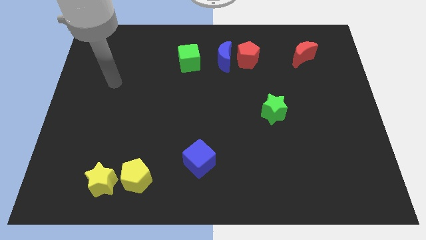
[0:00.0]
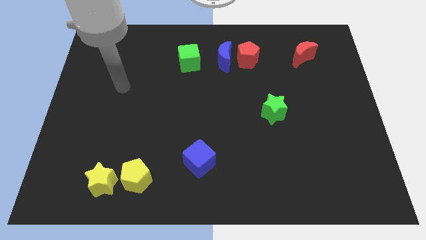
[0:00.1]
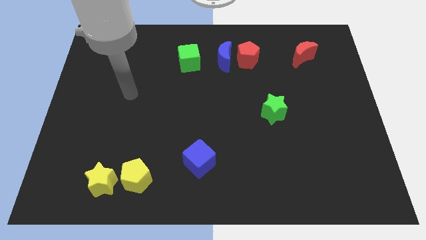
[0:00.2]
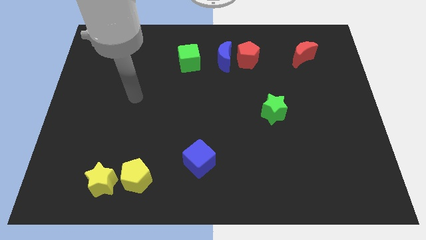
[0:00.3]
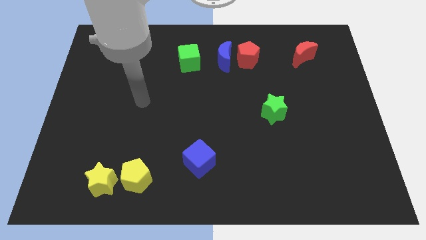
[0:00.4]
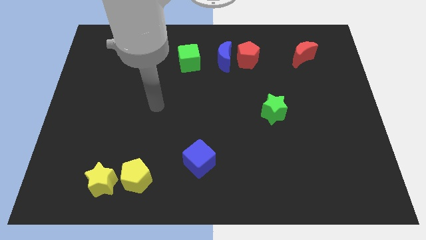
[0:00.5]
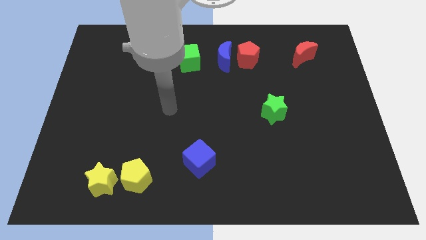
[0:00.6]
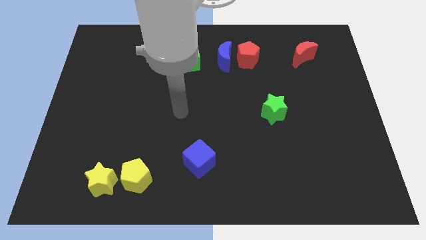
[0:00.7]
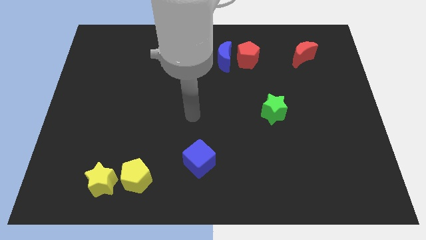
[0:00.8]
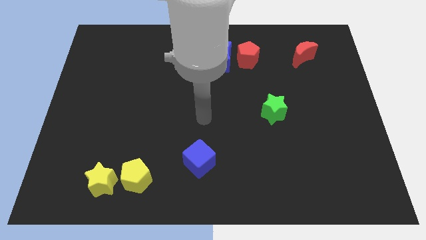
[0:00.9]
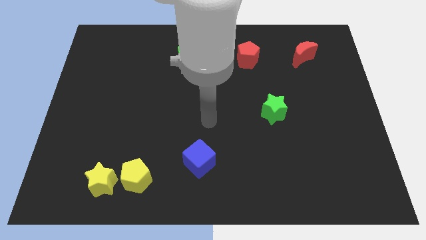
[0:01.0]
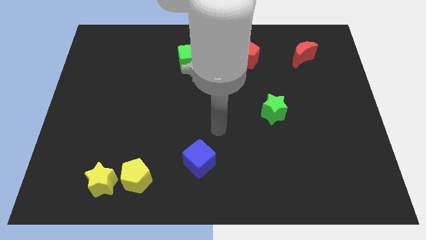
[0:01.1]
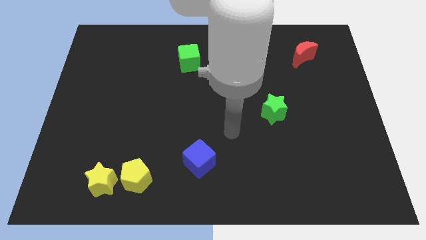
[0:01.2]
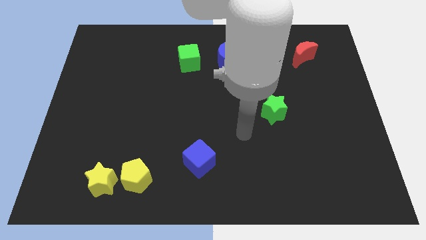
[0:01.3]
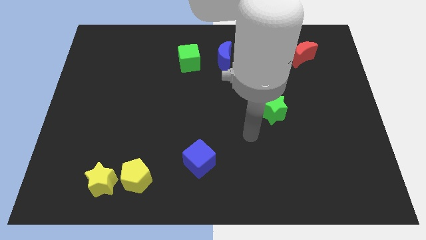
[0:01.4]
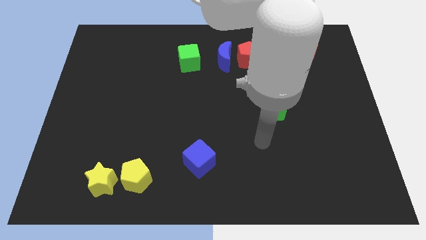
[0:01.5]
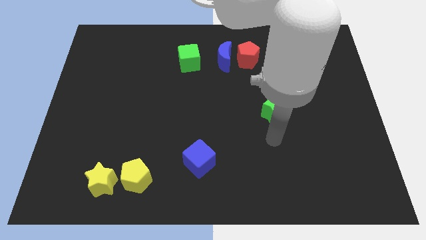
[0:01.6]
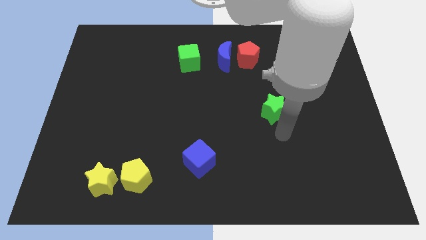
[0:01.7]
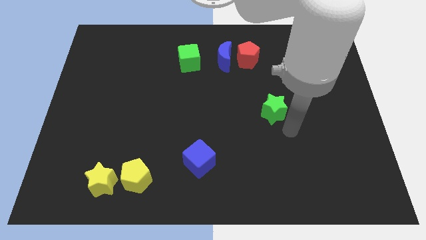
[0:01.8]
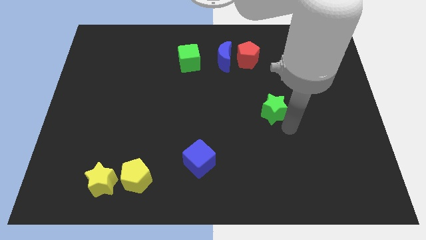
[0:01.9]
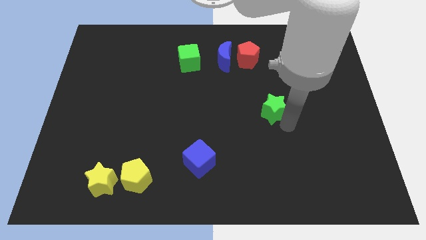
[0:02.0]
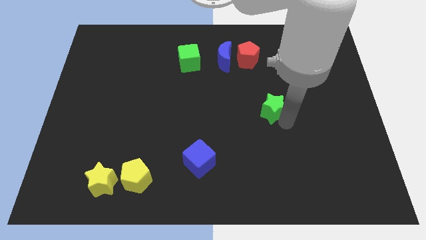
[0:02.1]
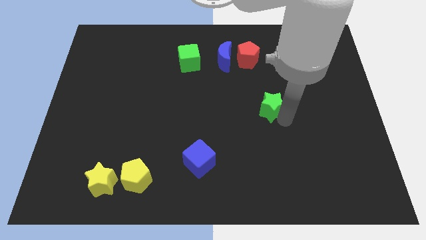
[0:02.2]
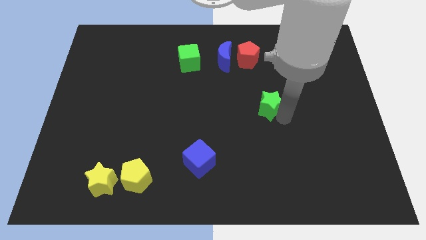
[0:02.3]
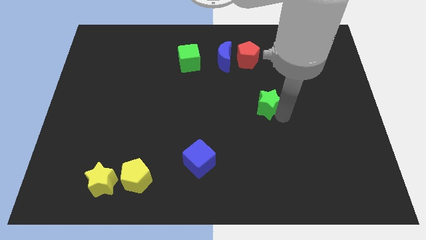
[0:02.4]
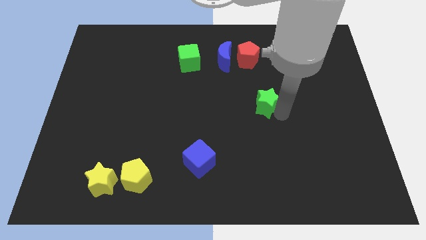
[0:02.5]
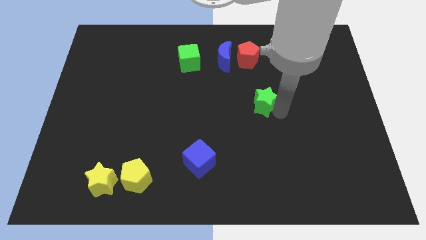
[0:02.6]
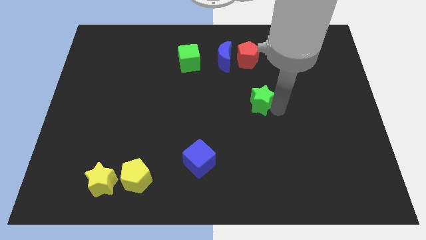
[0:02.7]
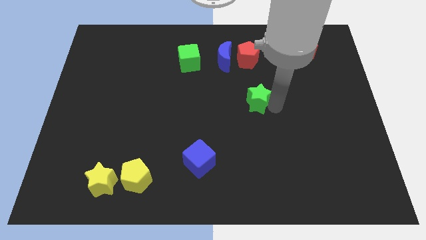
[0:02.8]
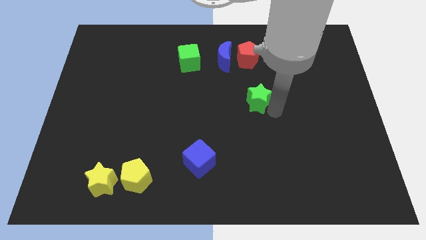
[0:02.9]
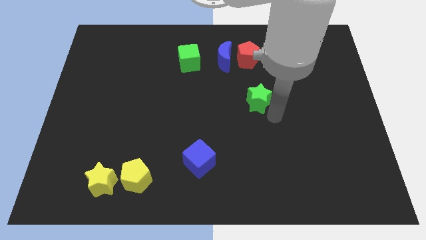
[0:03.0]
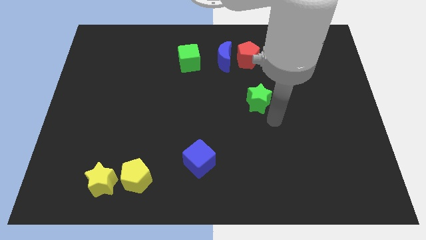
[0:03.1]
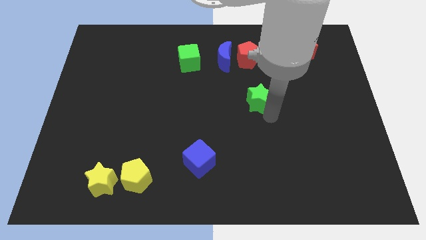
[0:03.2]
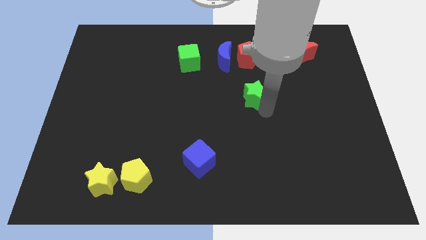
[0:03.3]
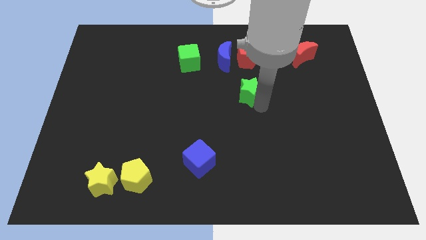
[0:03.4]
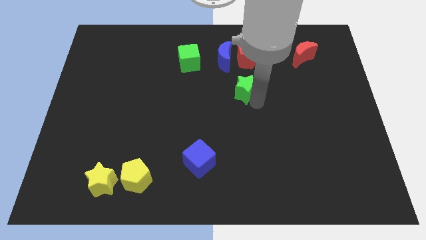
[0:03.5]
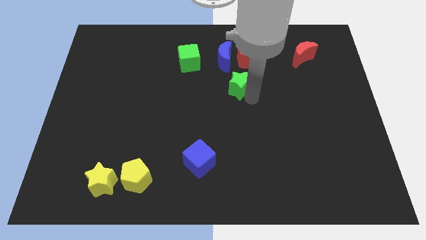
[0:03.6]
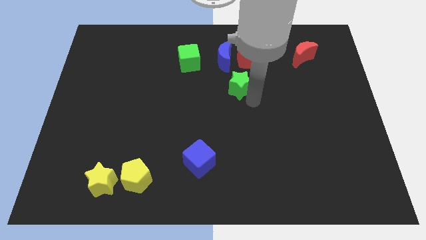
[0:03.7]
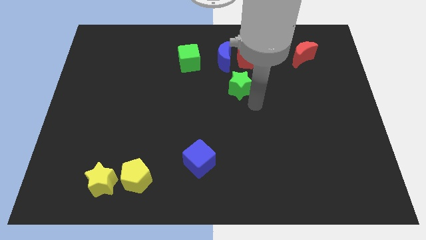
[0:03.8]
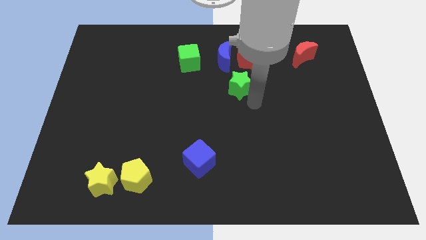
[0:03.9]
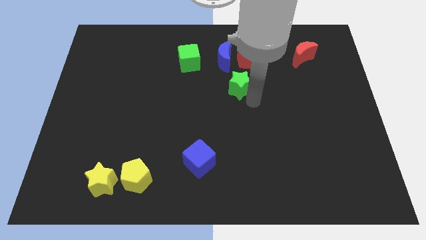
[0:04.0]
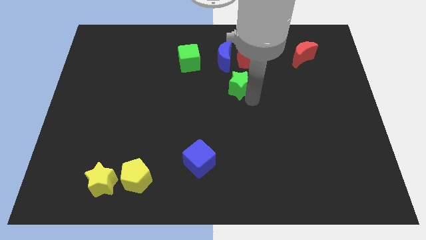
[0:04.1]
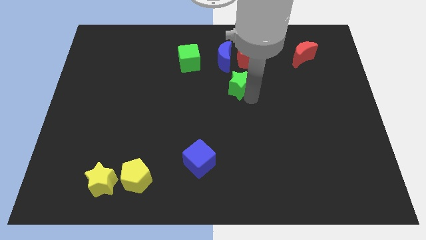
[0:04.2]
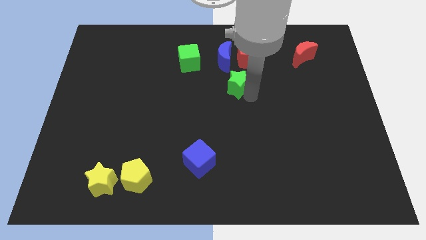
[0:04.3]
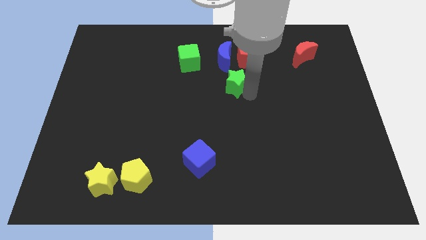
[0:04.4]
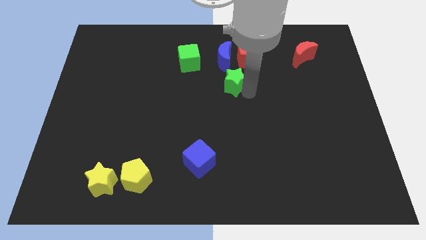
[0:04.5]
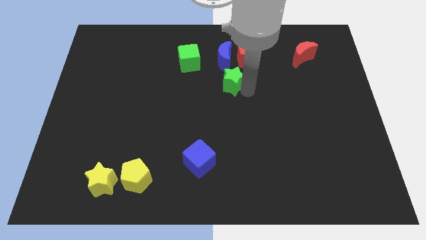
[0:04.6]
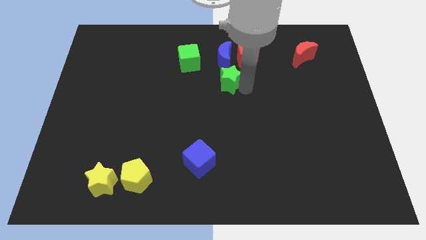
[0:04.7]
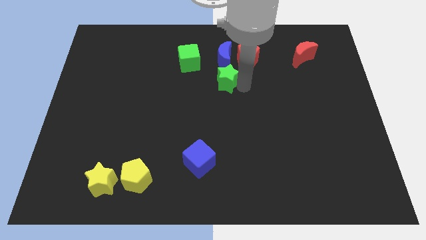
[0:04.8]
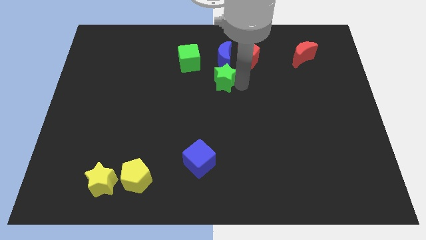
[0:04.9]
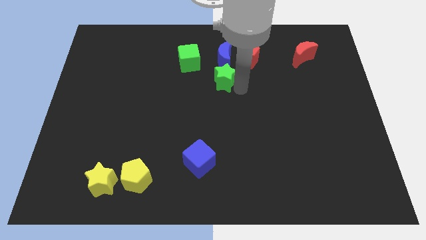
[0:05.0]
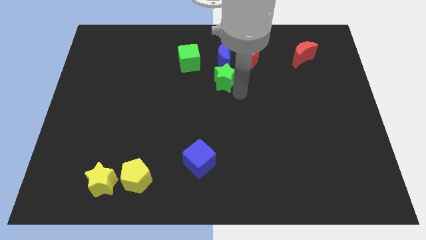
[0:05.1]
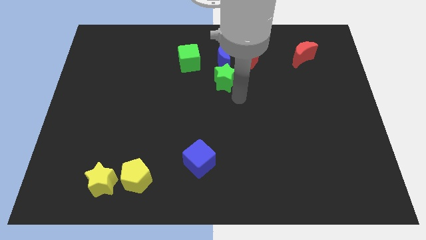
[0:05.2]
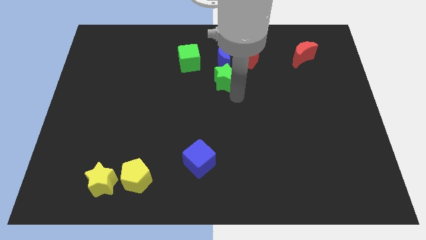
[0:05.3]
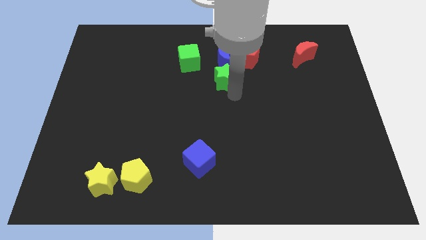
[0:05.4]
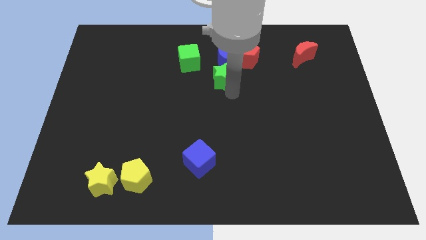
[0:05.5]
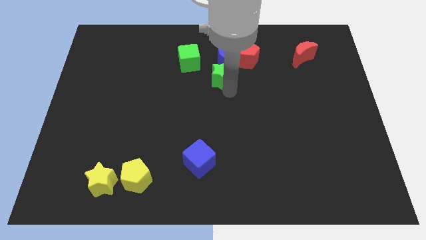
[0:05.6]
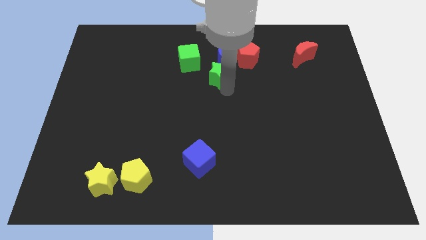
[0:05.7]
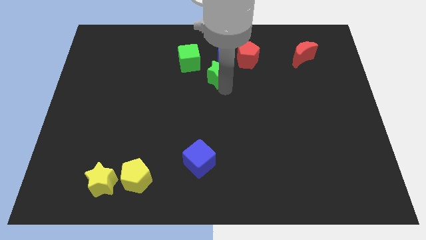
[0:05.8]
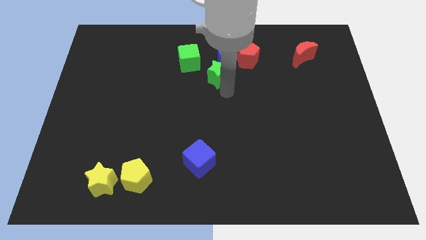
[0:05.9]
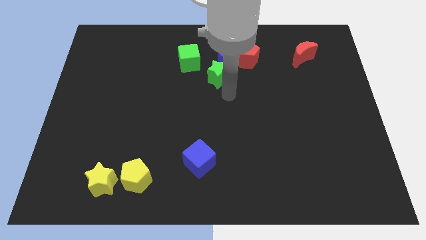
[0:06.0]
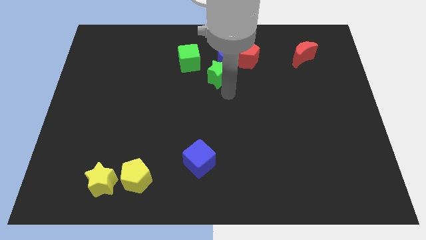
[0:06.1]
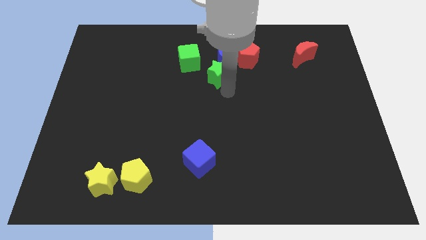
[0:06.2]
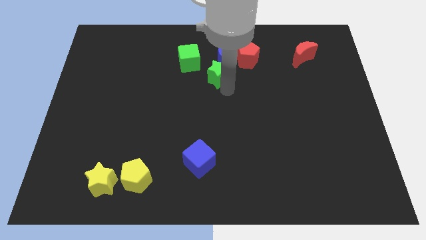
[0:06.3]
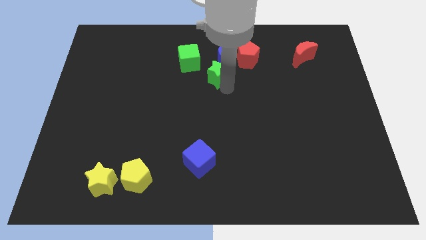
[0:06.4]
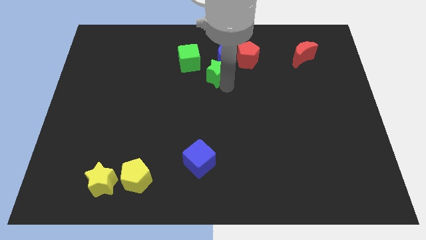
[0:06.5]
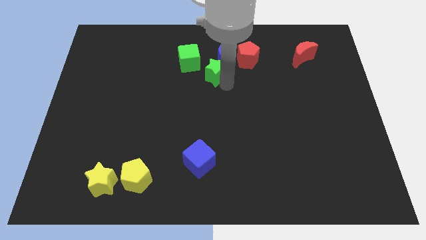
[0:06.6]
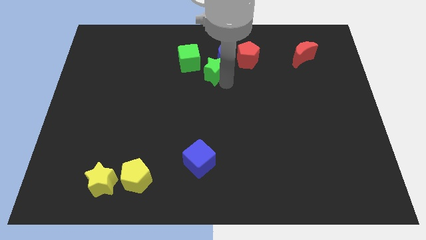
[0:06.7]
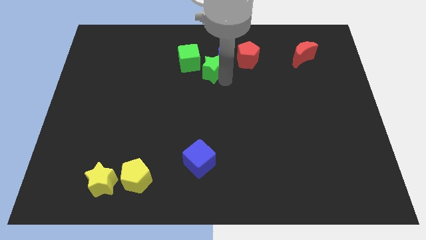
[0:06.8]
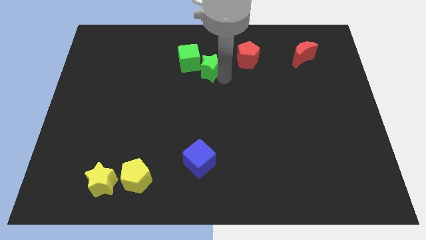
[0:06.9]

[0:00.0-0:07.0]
push the green star towards the green cube
